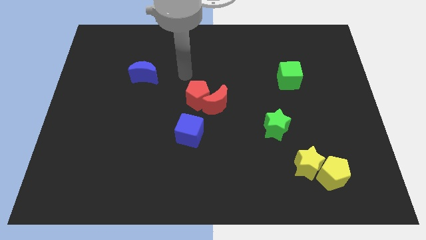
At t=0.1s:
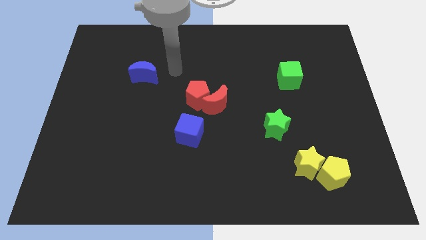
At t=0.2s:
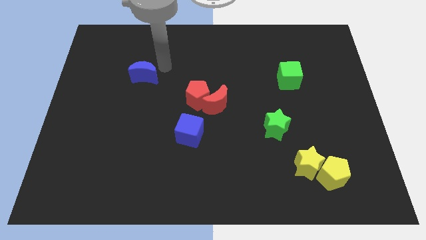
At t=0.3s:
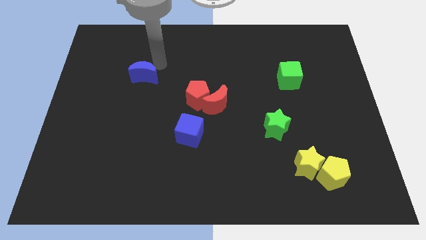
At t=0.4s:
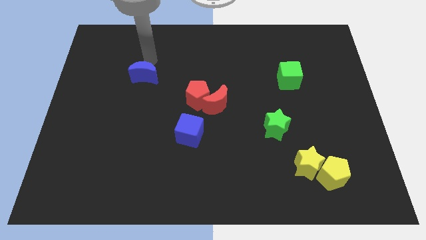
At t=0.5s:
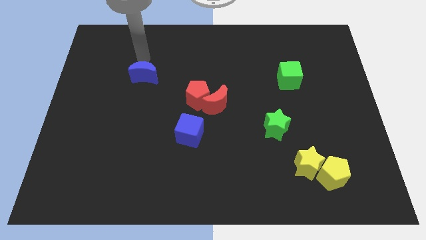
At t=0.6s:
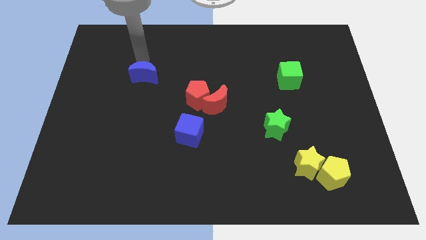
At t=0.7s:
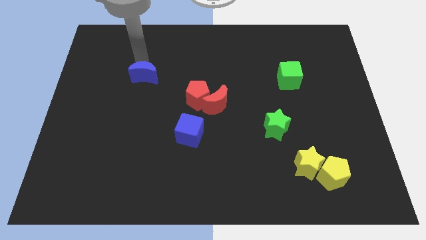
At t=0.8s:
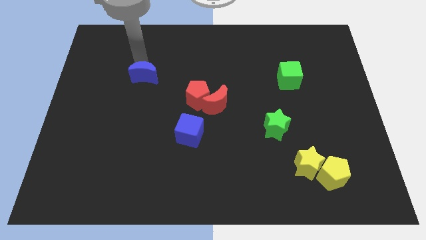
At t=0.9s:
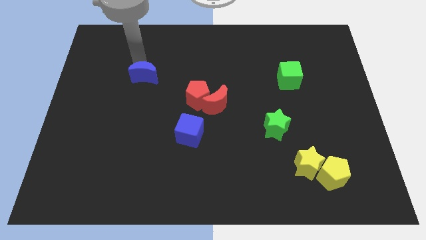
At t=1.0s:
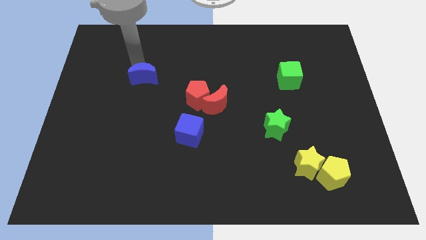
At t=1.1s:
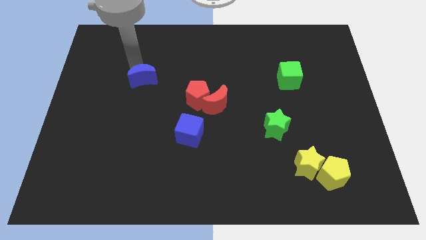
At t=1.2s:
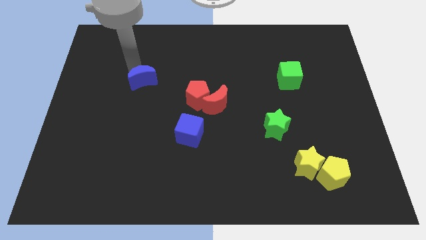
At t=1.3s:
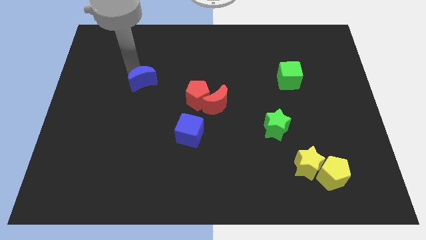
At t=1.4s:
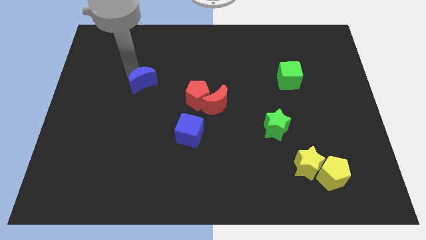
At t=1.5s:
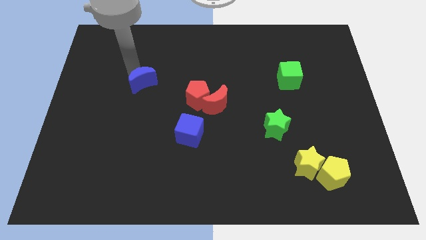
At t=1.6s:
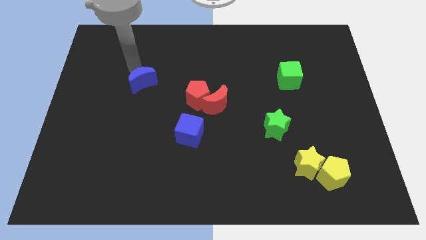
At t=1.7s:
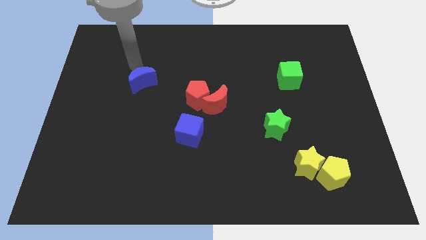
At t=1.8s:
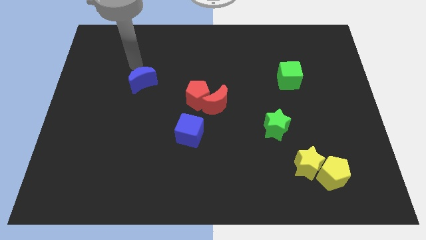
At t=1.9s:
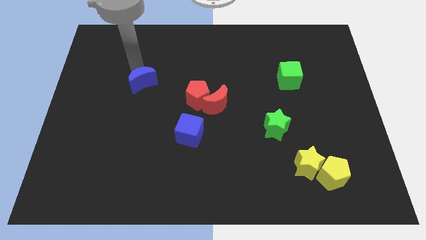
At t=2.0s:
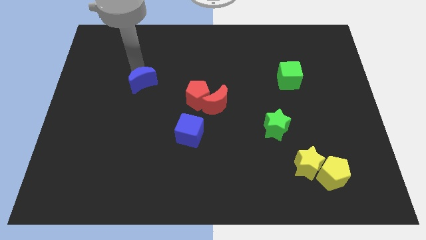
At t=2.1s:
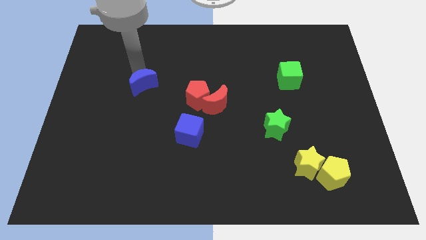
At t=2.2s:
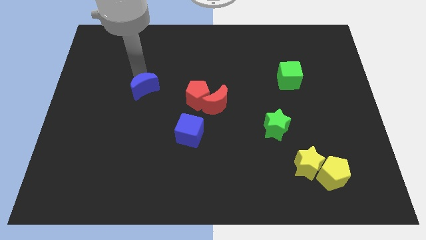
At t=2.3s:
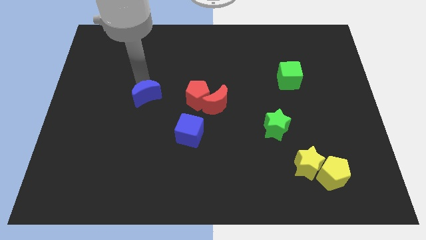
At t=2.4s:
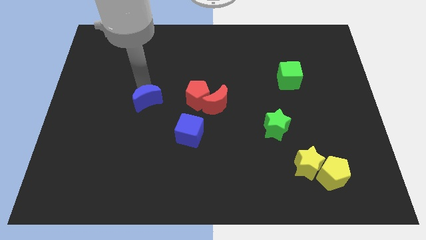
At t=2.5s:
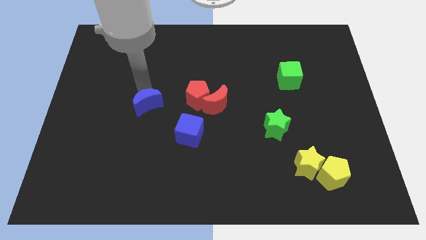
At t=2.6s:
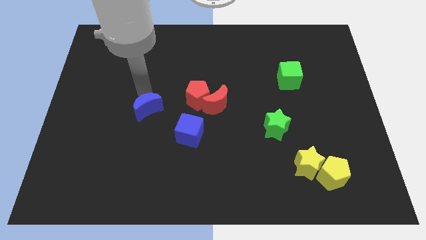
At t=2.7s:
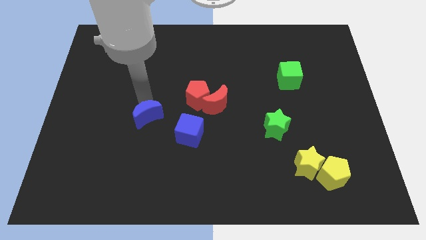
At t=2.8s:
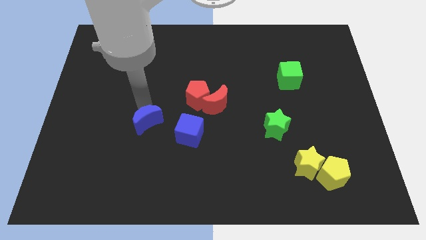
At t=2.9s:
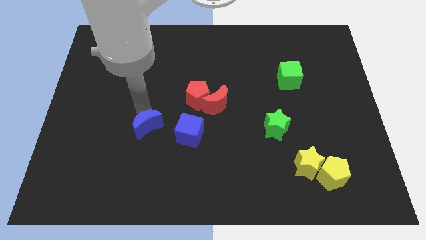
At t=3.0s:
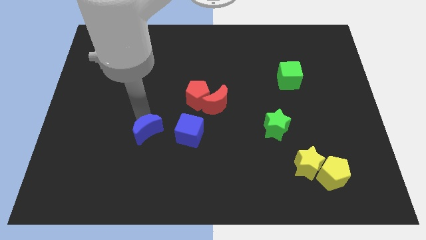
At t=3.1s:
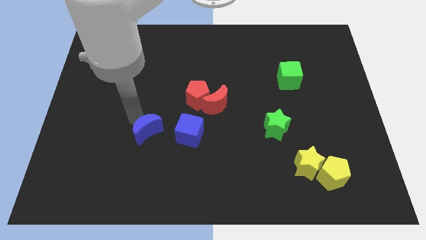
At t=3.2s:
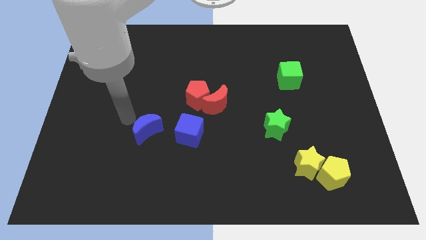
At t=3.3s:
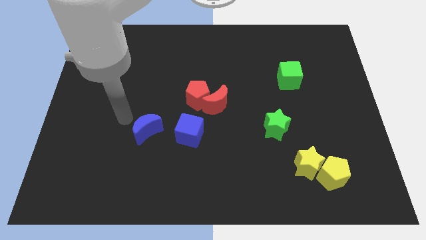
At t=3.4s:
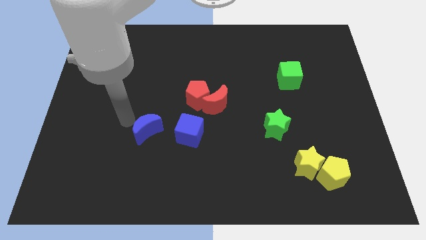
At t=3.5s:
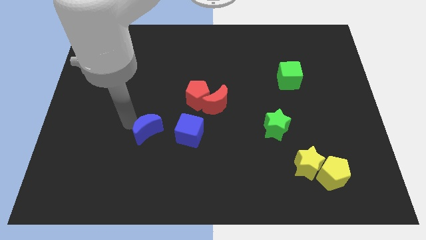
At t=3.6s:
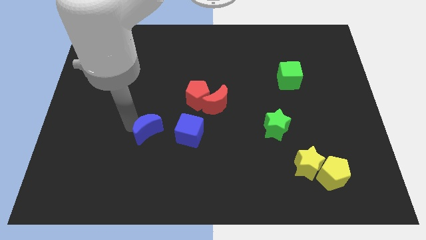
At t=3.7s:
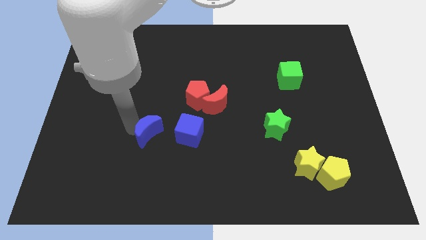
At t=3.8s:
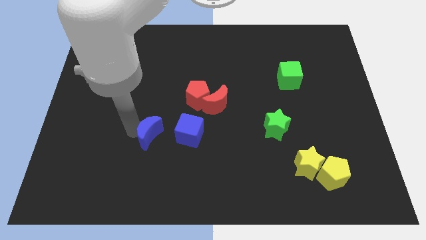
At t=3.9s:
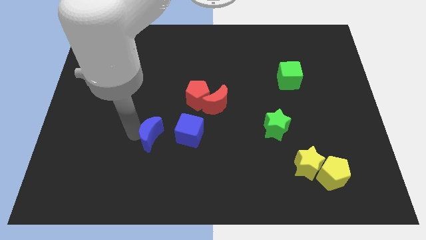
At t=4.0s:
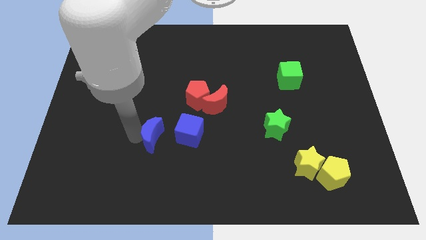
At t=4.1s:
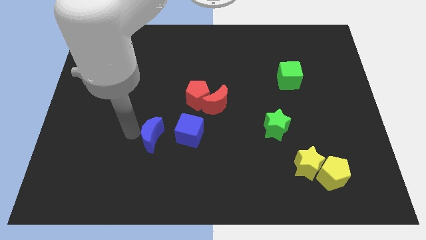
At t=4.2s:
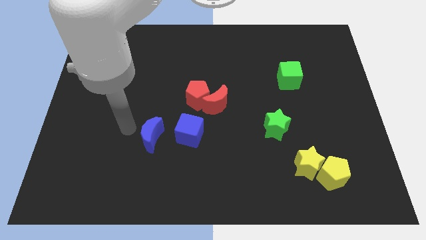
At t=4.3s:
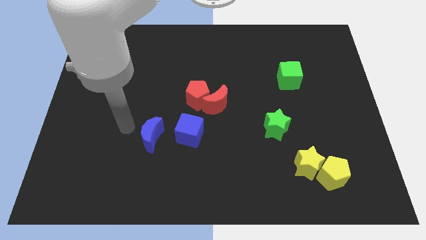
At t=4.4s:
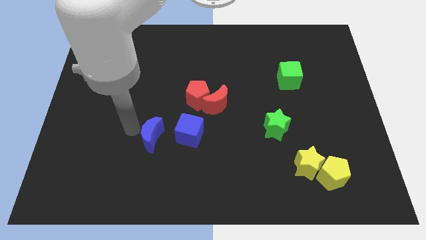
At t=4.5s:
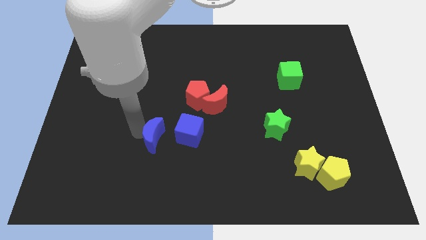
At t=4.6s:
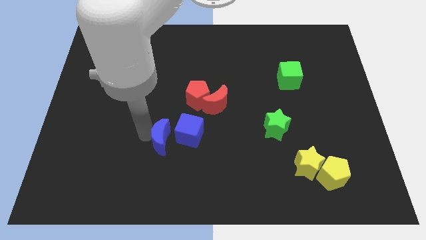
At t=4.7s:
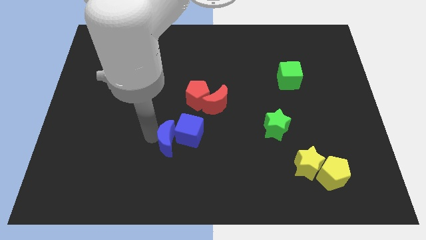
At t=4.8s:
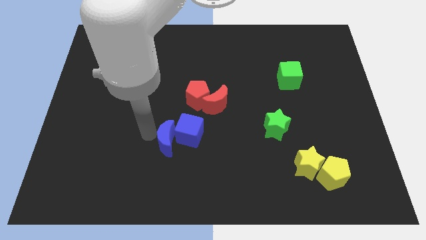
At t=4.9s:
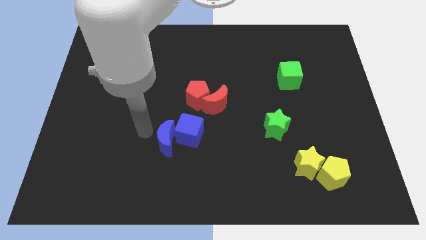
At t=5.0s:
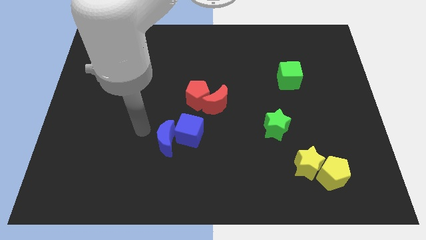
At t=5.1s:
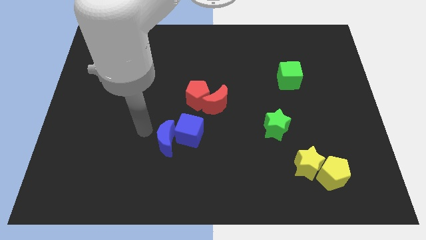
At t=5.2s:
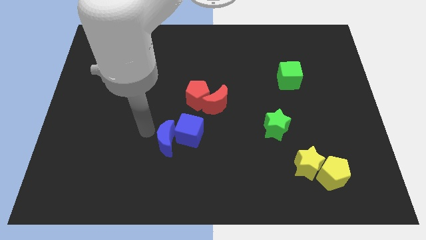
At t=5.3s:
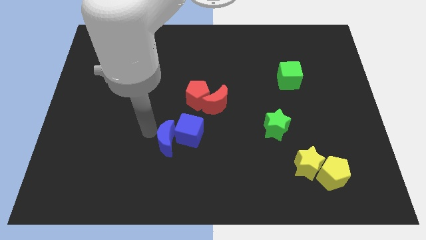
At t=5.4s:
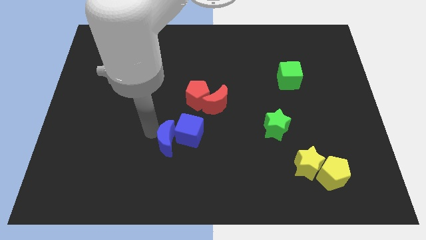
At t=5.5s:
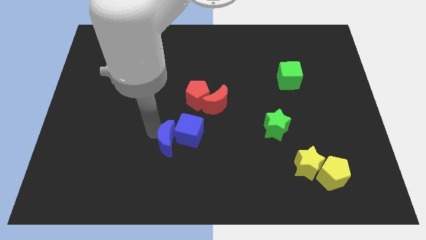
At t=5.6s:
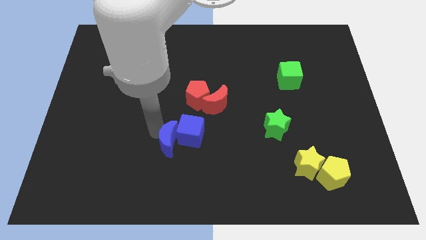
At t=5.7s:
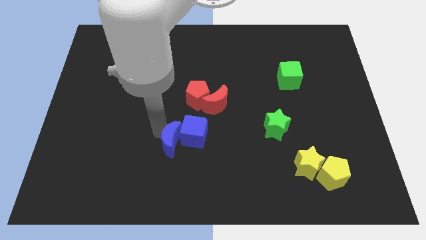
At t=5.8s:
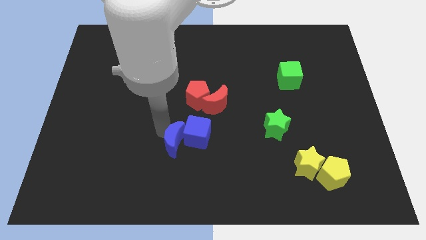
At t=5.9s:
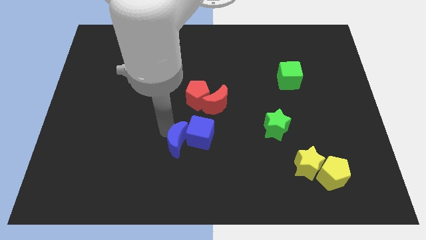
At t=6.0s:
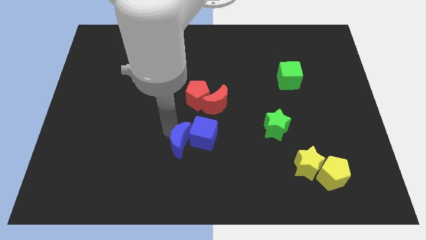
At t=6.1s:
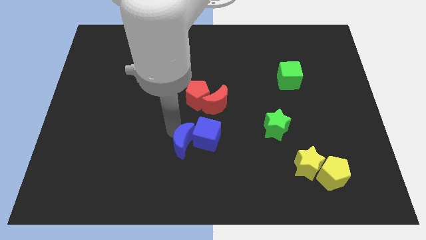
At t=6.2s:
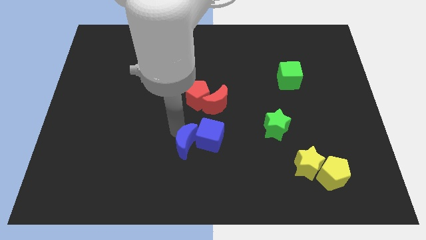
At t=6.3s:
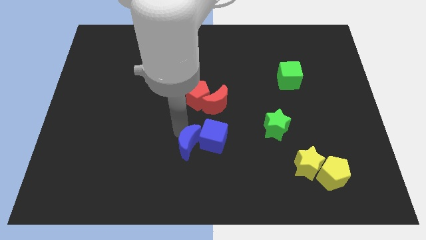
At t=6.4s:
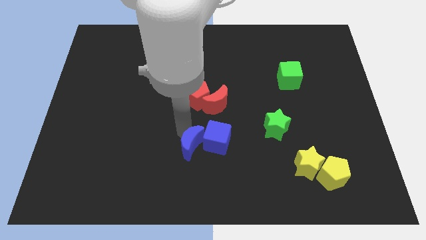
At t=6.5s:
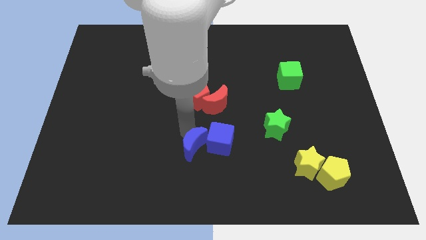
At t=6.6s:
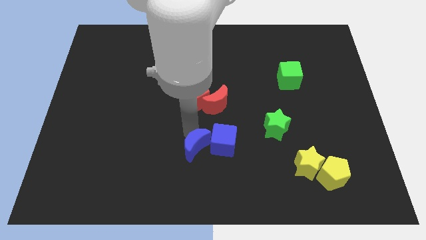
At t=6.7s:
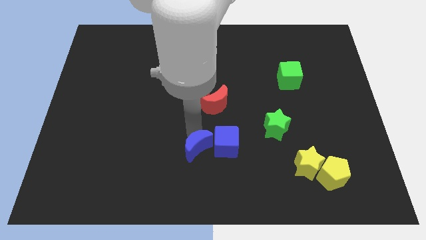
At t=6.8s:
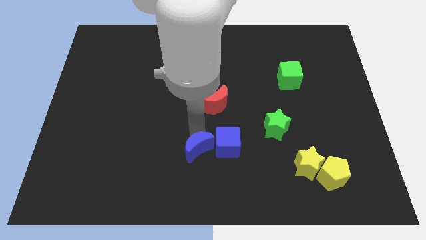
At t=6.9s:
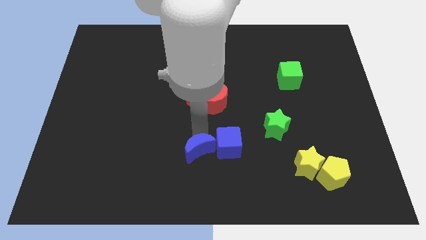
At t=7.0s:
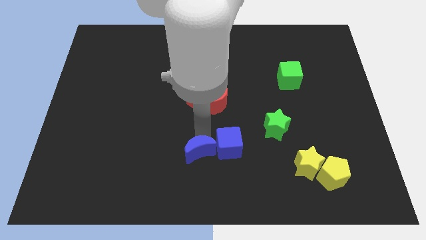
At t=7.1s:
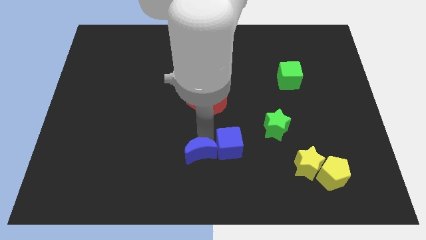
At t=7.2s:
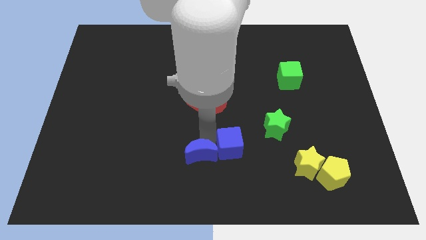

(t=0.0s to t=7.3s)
put the blue moon to the bottom
